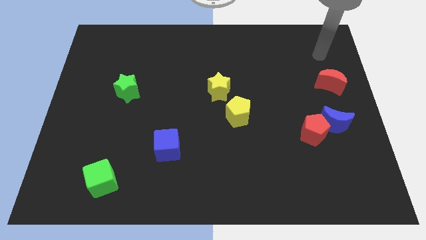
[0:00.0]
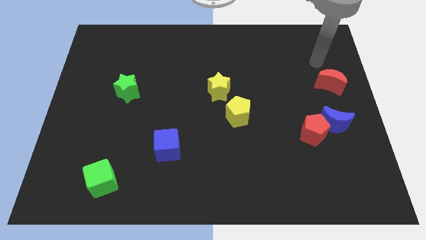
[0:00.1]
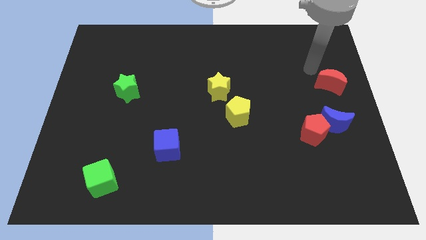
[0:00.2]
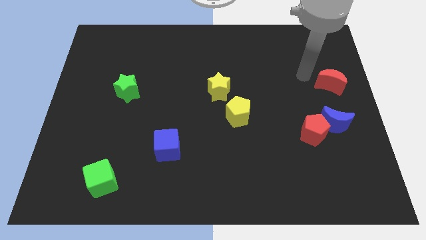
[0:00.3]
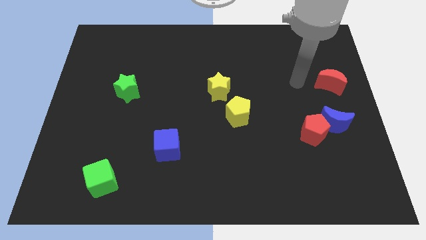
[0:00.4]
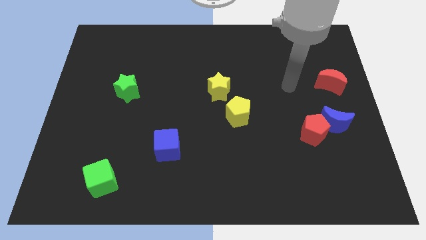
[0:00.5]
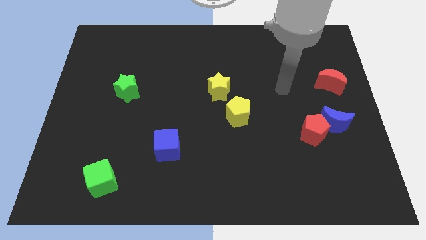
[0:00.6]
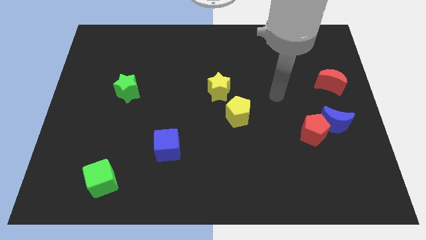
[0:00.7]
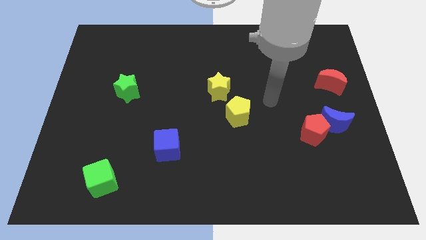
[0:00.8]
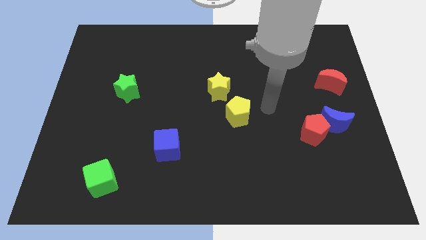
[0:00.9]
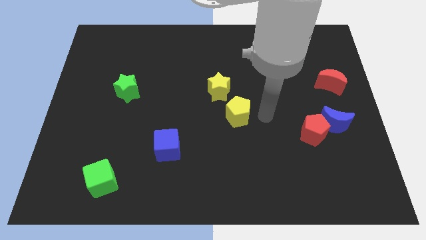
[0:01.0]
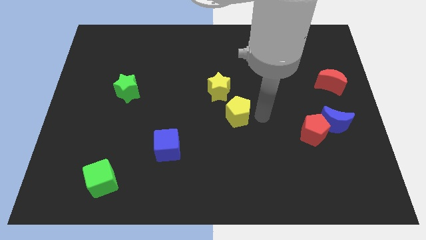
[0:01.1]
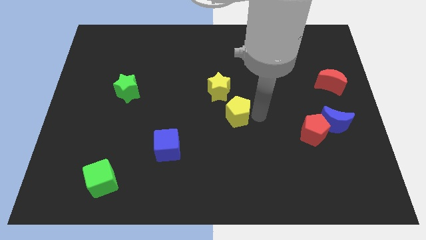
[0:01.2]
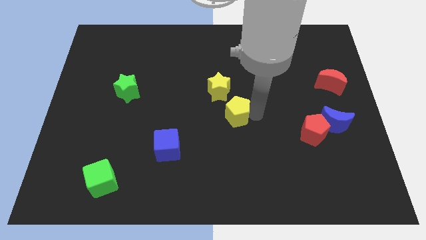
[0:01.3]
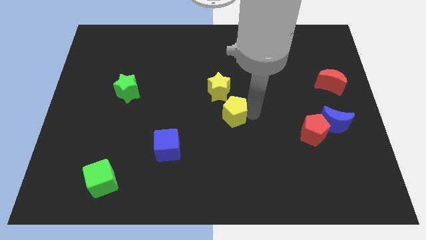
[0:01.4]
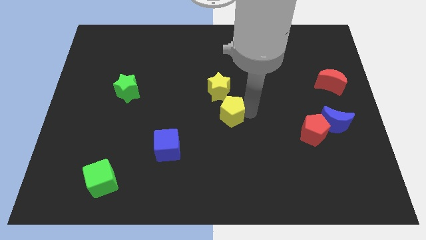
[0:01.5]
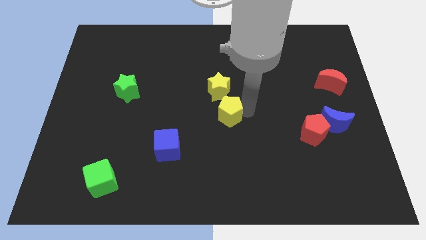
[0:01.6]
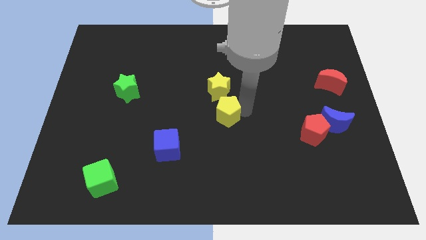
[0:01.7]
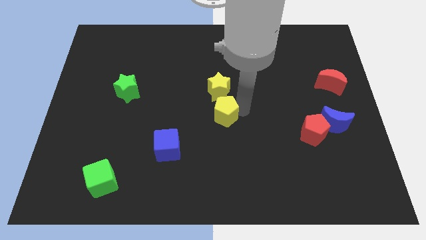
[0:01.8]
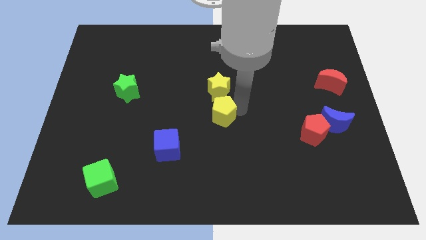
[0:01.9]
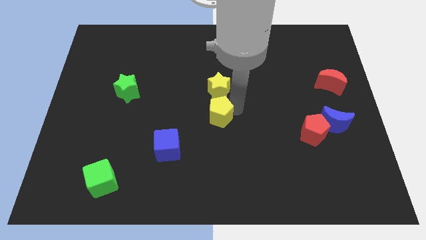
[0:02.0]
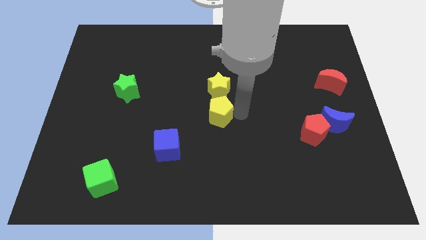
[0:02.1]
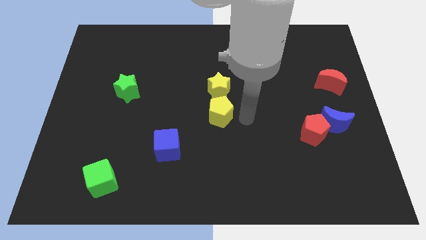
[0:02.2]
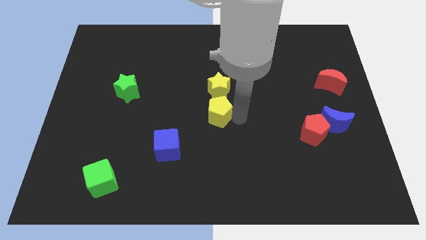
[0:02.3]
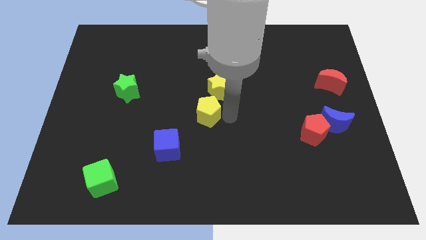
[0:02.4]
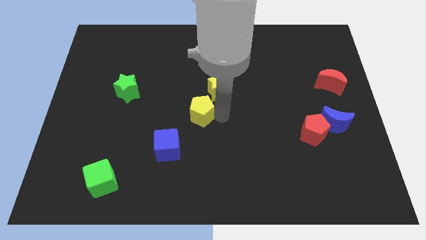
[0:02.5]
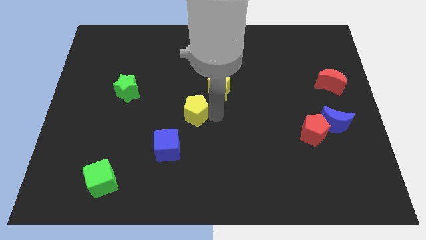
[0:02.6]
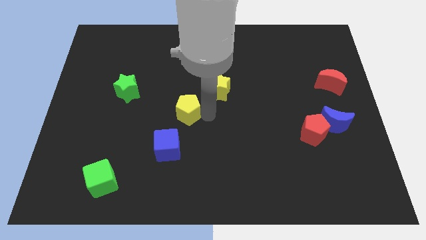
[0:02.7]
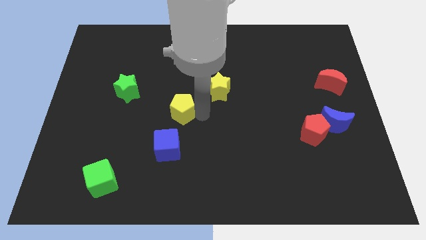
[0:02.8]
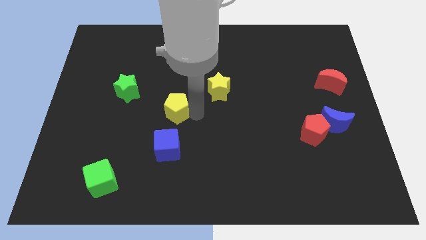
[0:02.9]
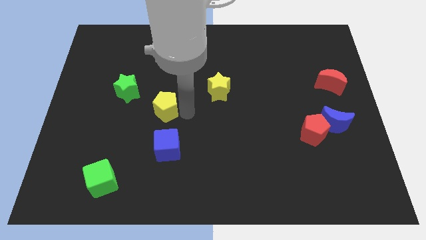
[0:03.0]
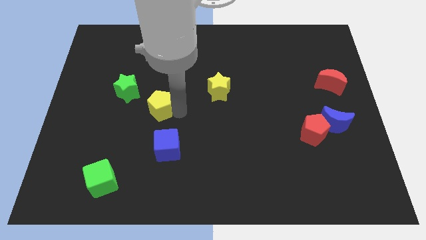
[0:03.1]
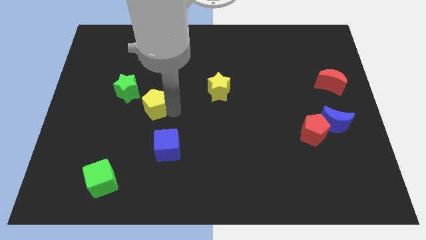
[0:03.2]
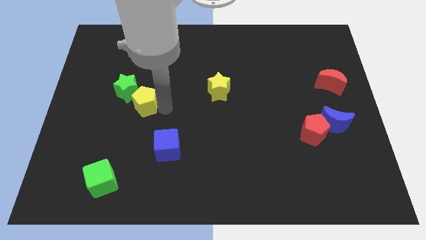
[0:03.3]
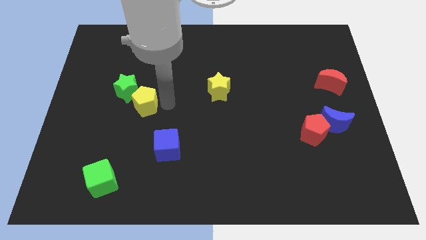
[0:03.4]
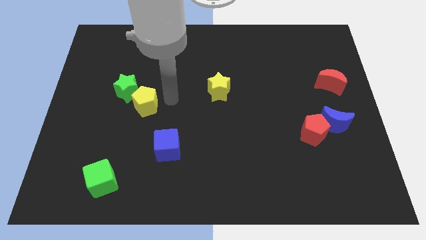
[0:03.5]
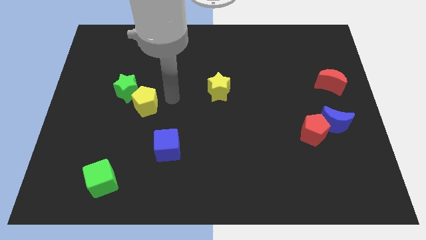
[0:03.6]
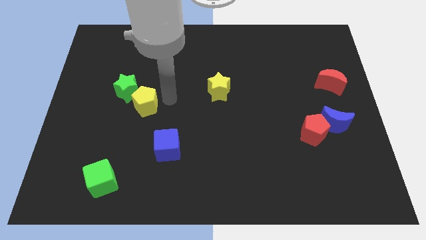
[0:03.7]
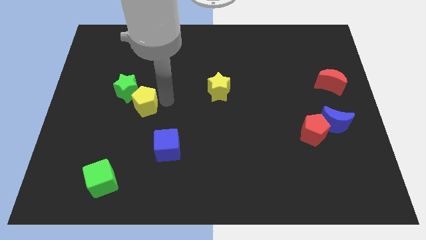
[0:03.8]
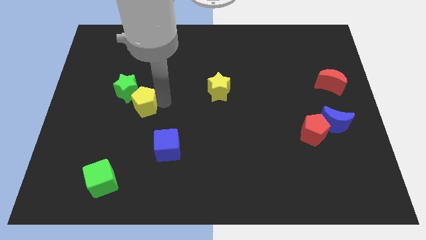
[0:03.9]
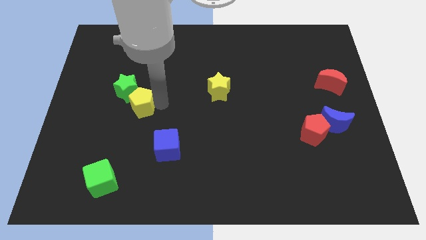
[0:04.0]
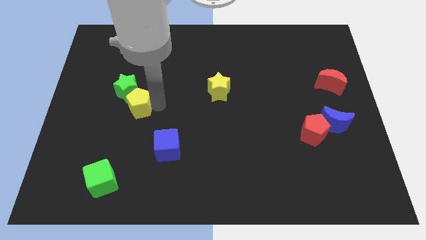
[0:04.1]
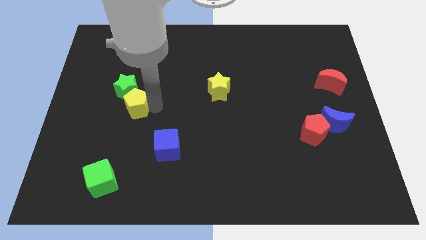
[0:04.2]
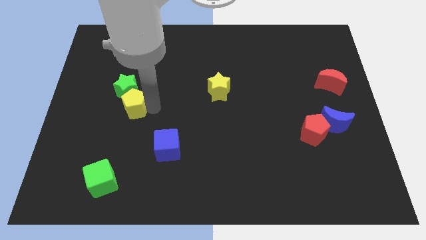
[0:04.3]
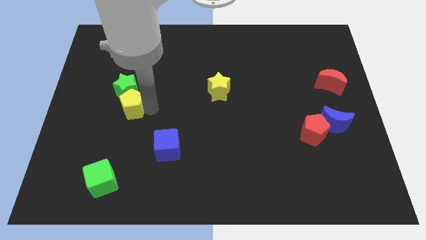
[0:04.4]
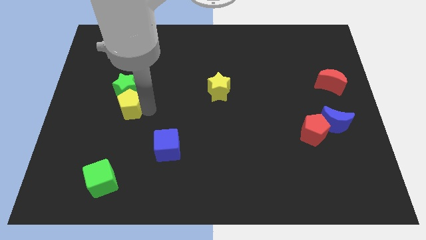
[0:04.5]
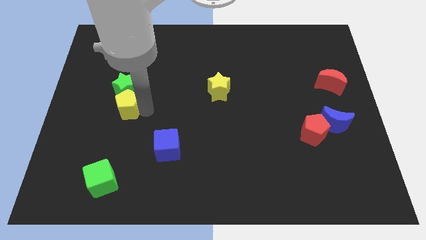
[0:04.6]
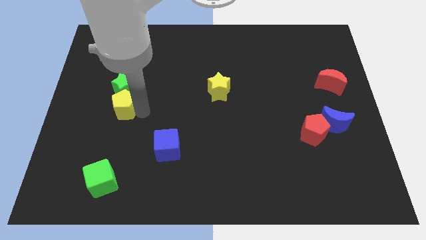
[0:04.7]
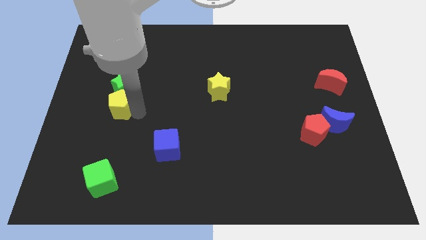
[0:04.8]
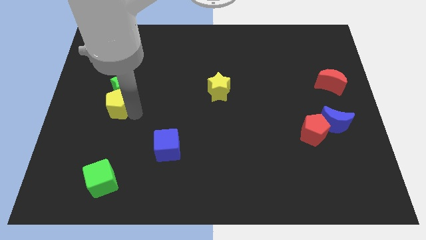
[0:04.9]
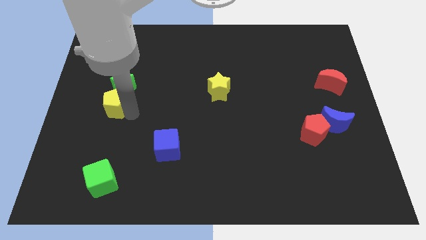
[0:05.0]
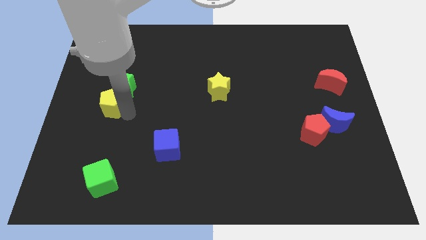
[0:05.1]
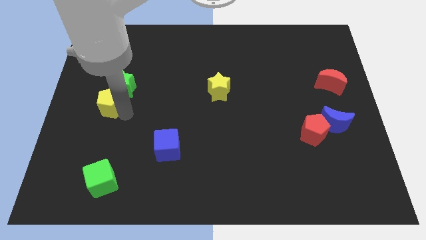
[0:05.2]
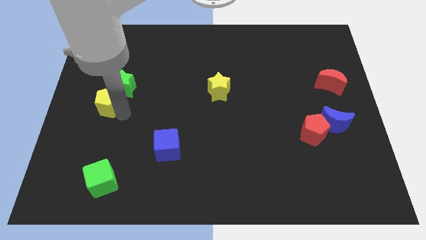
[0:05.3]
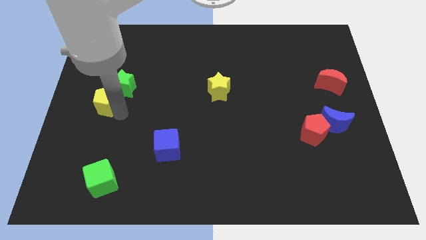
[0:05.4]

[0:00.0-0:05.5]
slide the yellow pentagon to the center left

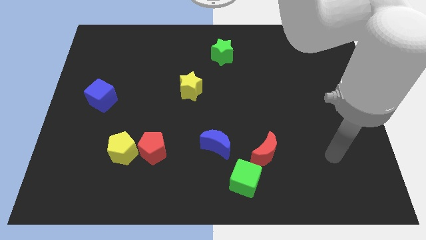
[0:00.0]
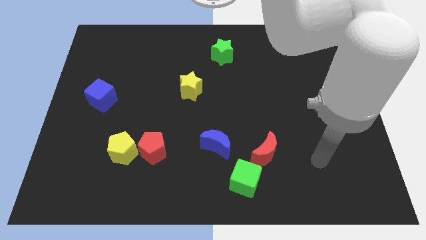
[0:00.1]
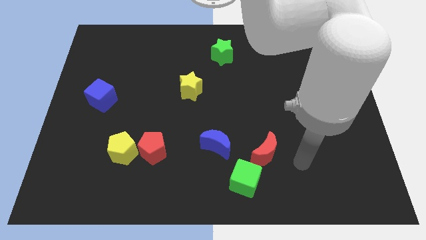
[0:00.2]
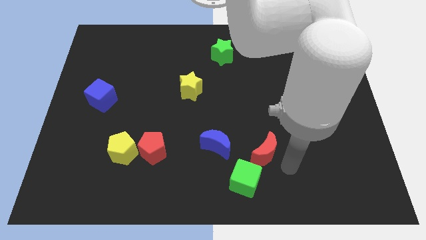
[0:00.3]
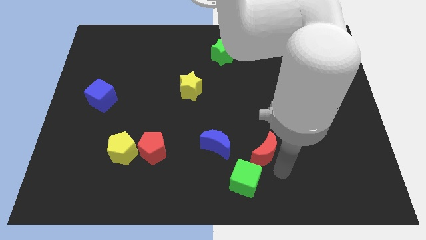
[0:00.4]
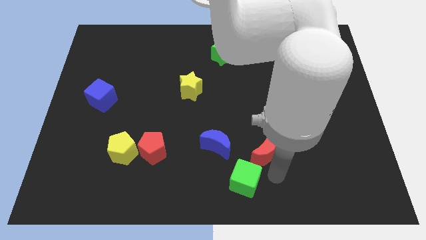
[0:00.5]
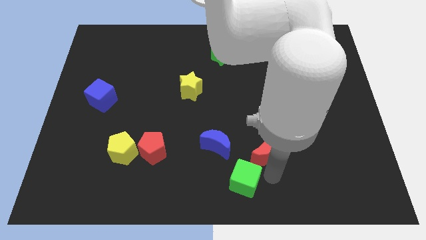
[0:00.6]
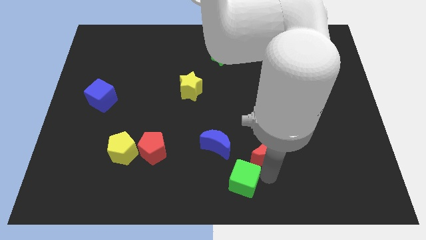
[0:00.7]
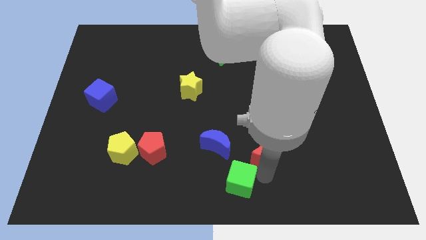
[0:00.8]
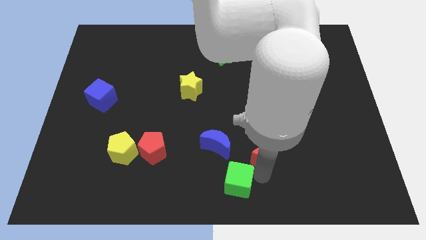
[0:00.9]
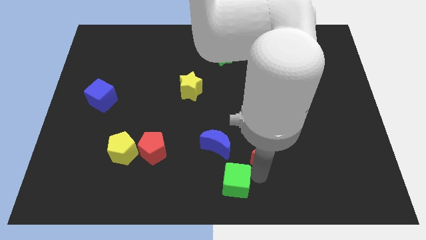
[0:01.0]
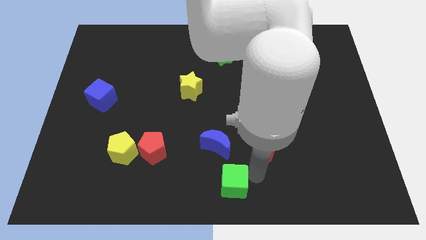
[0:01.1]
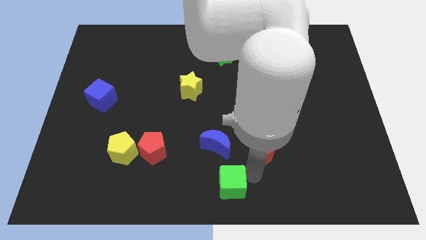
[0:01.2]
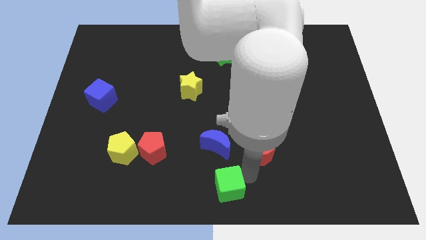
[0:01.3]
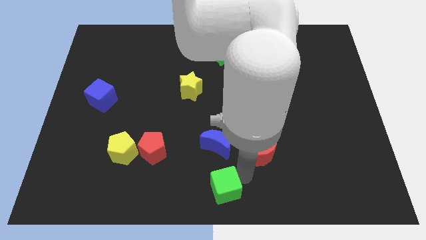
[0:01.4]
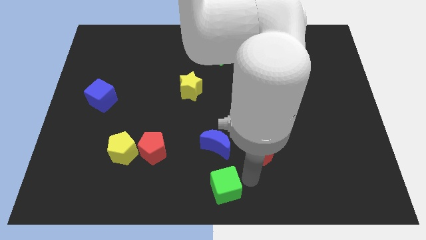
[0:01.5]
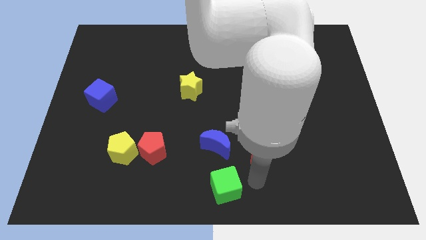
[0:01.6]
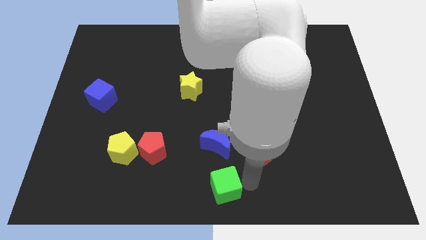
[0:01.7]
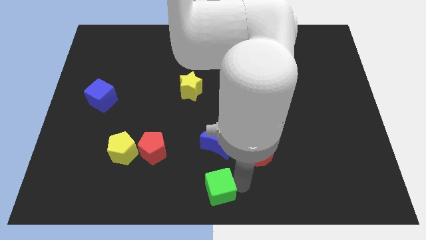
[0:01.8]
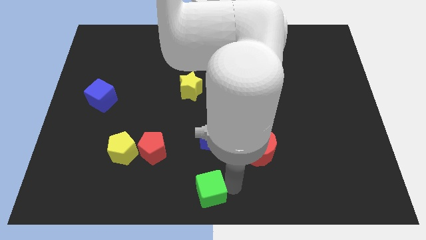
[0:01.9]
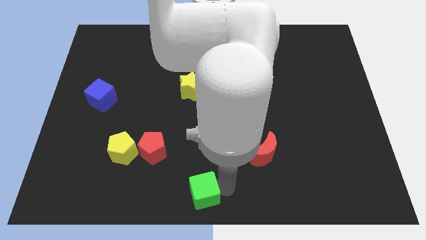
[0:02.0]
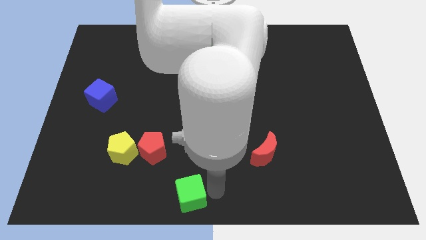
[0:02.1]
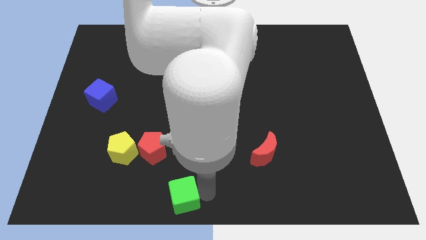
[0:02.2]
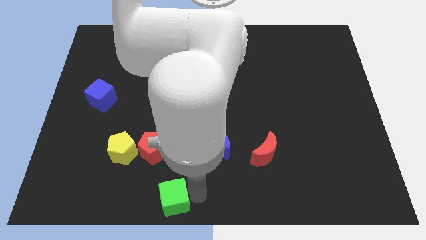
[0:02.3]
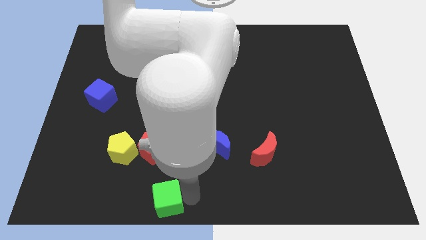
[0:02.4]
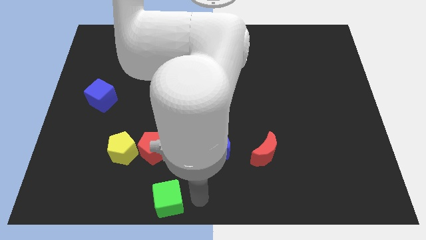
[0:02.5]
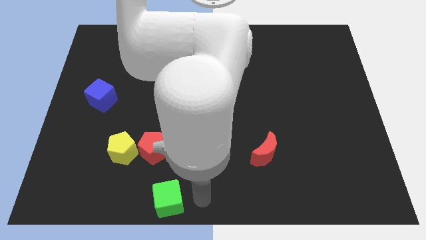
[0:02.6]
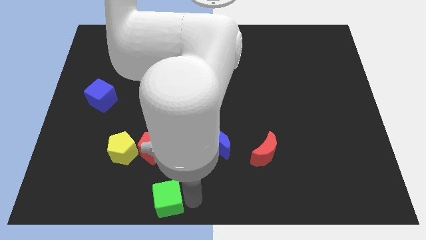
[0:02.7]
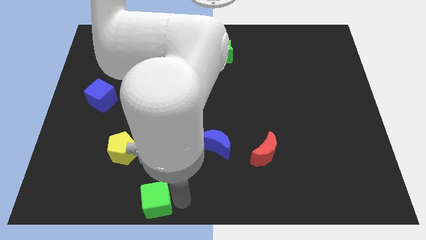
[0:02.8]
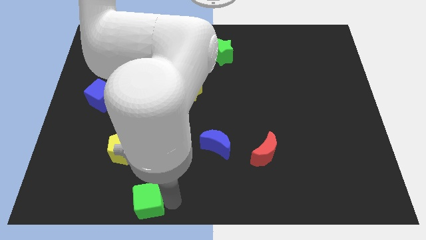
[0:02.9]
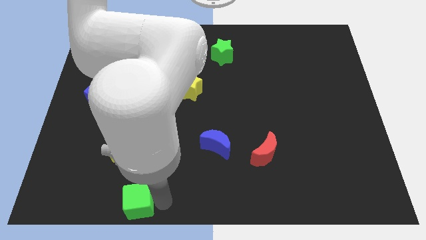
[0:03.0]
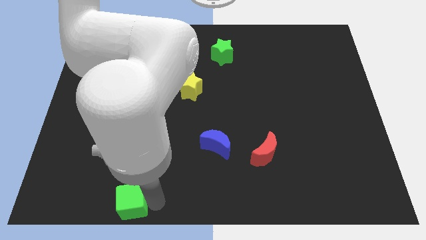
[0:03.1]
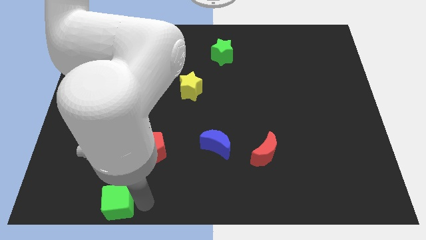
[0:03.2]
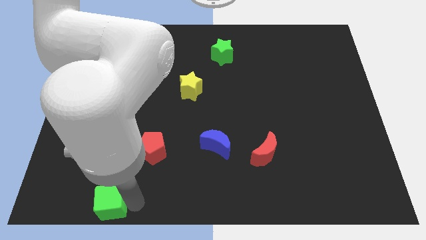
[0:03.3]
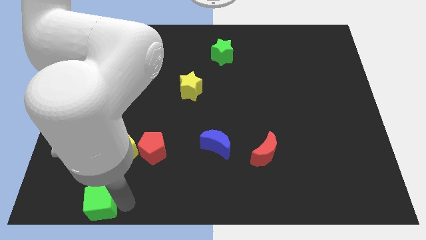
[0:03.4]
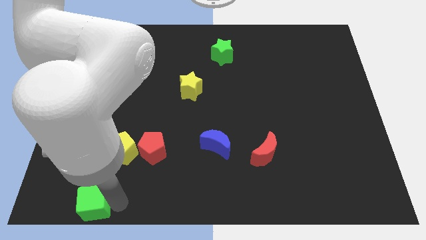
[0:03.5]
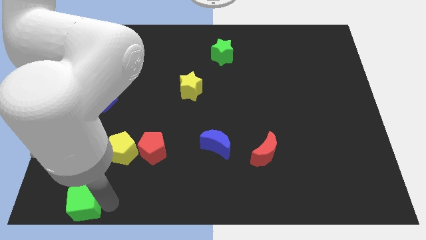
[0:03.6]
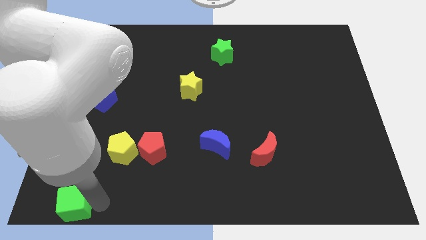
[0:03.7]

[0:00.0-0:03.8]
slide the green cube to the lower left corner
